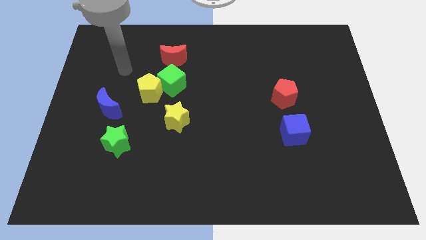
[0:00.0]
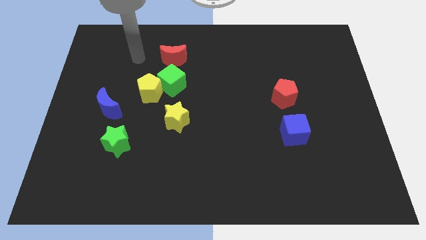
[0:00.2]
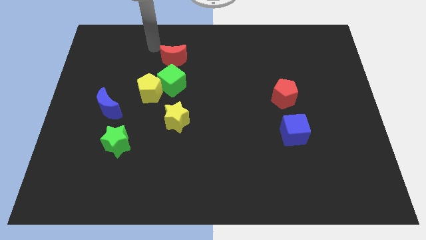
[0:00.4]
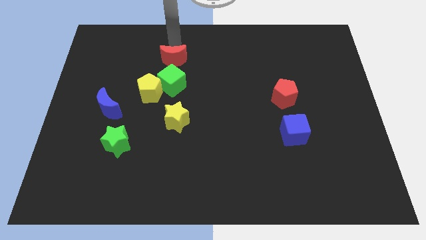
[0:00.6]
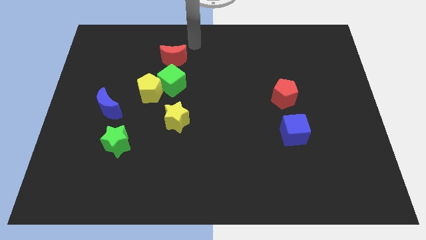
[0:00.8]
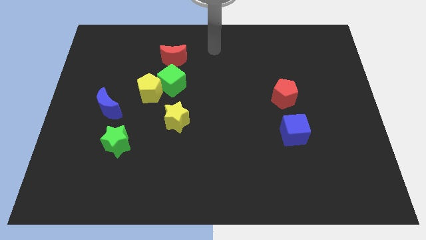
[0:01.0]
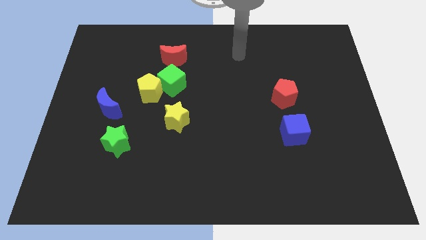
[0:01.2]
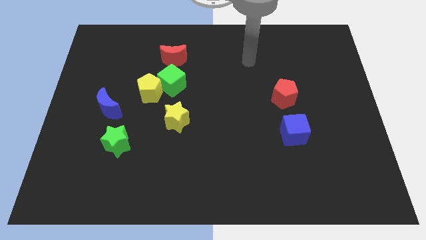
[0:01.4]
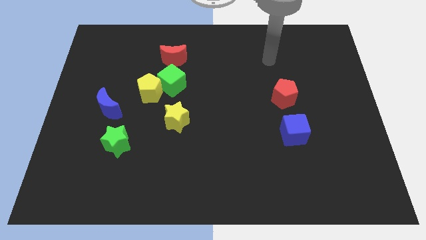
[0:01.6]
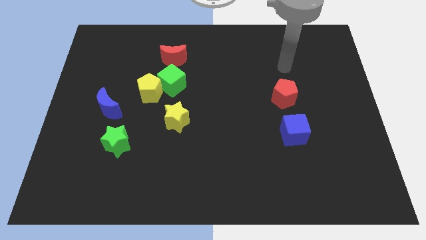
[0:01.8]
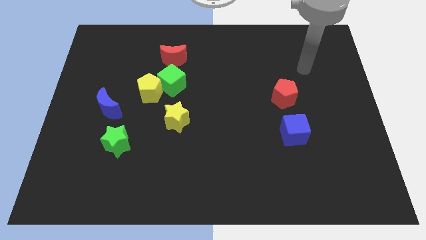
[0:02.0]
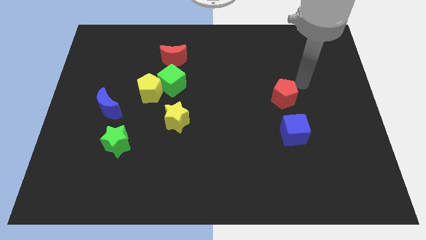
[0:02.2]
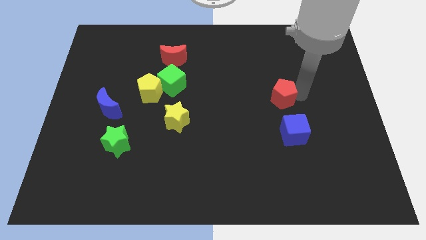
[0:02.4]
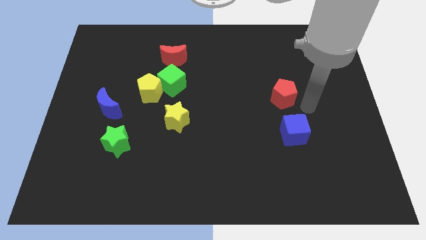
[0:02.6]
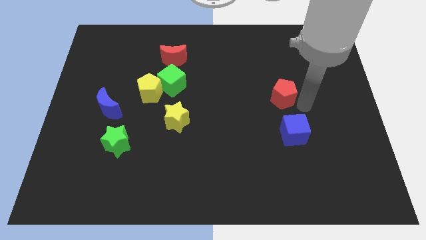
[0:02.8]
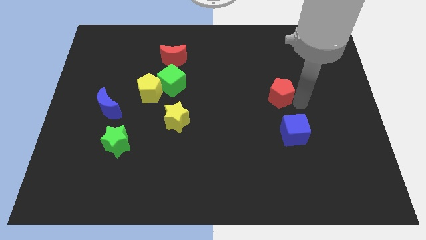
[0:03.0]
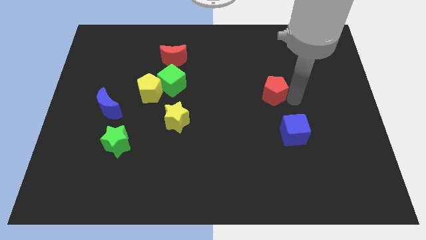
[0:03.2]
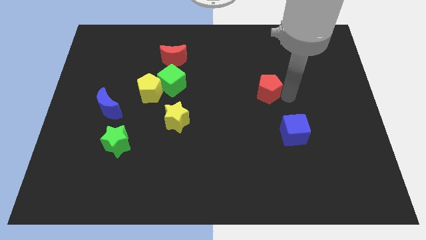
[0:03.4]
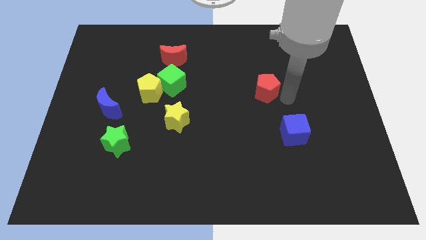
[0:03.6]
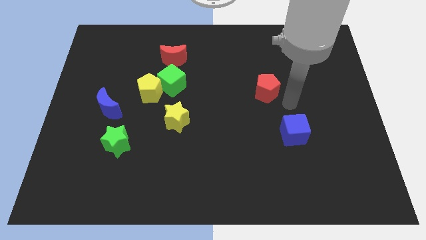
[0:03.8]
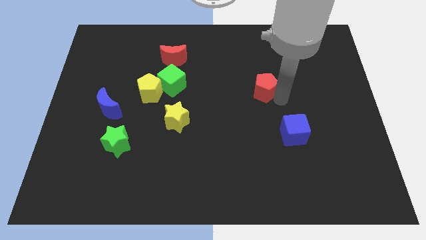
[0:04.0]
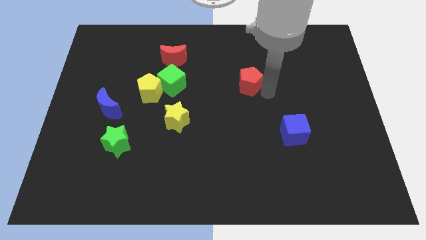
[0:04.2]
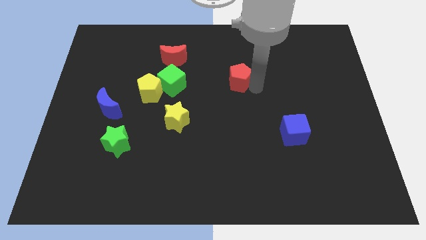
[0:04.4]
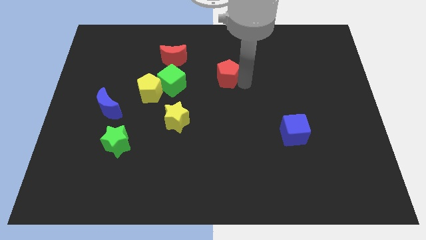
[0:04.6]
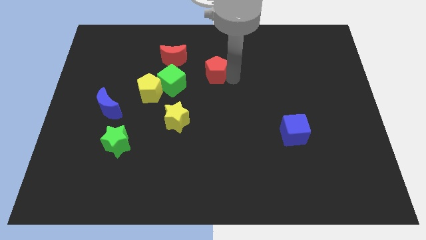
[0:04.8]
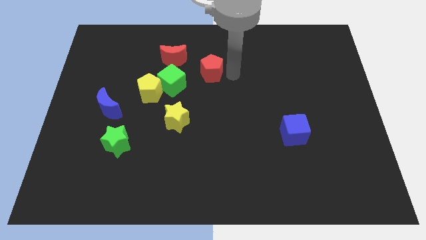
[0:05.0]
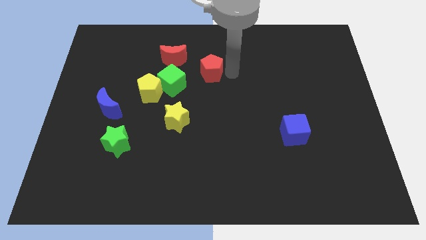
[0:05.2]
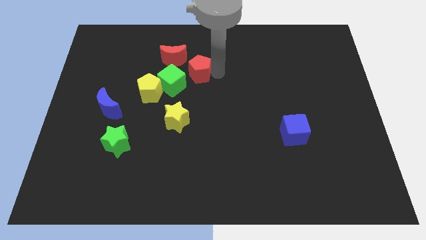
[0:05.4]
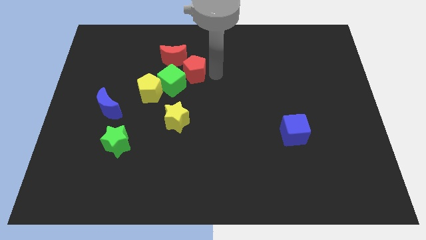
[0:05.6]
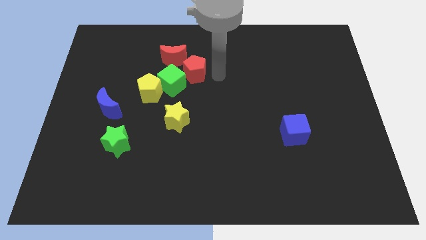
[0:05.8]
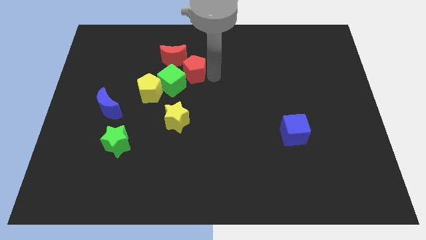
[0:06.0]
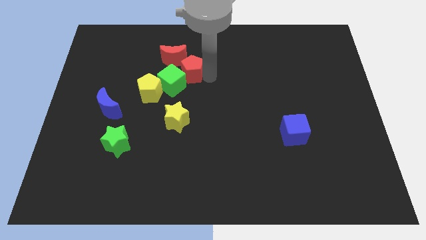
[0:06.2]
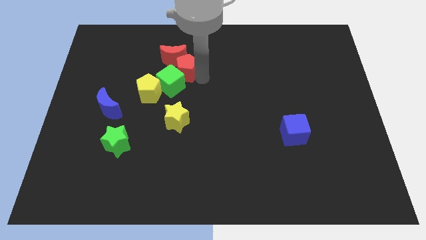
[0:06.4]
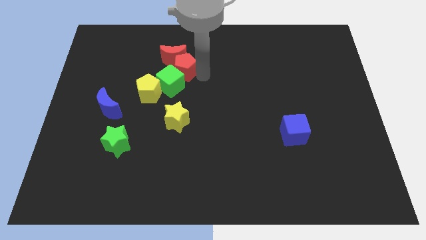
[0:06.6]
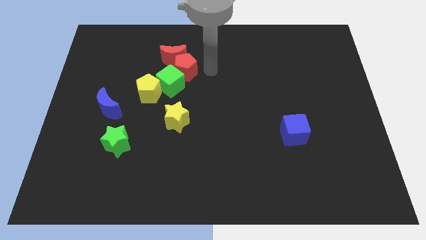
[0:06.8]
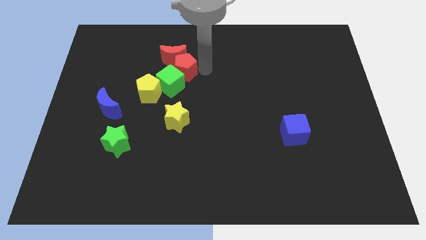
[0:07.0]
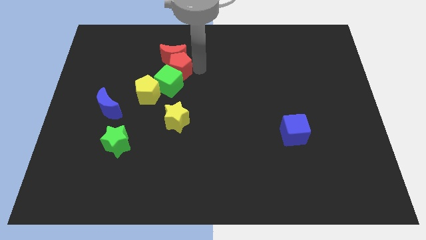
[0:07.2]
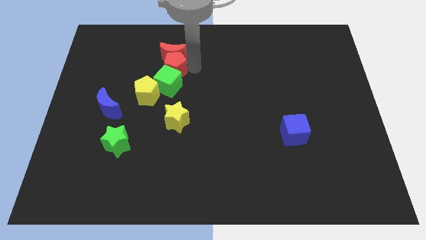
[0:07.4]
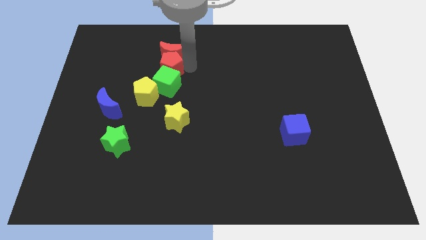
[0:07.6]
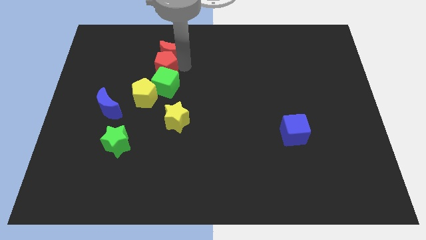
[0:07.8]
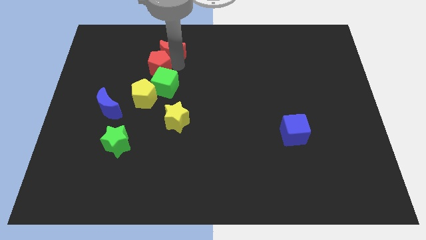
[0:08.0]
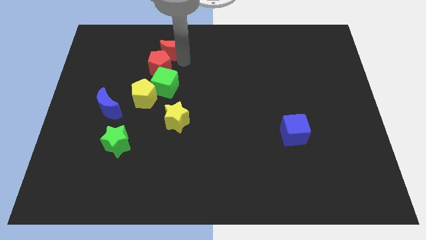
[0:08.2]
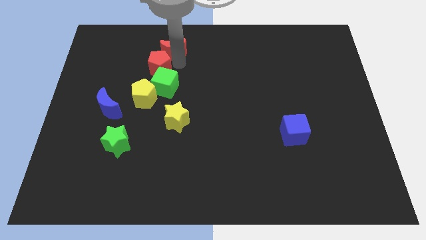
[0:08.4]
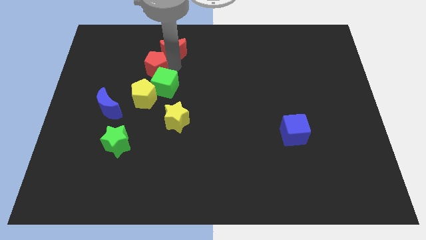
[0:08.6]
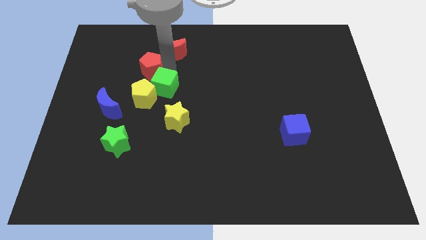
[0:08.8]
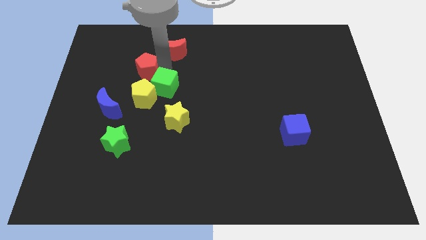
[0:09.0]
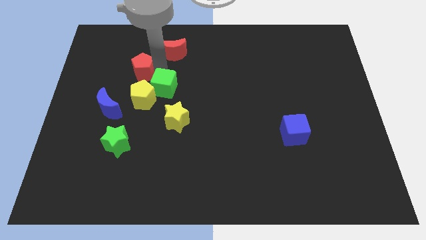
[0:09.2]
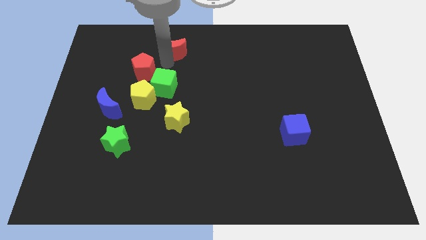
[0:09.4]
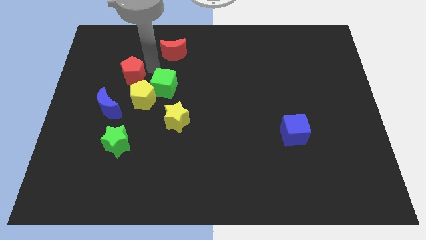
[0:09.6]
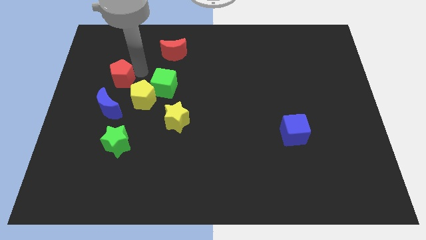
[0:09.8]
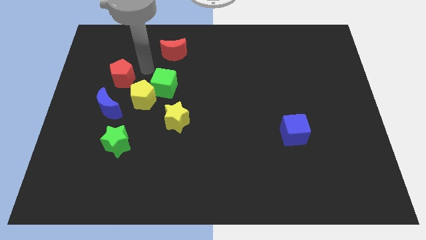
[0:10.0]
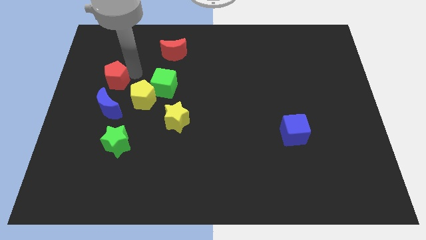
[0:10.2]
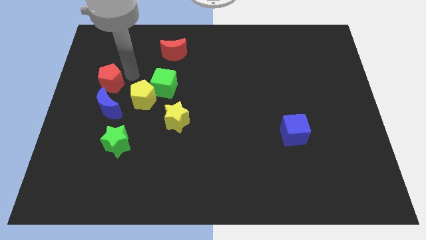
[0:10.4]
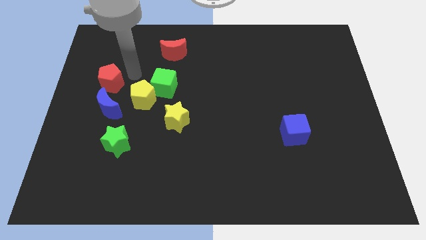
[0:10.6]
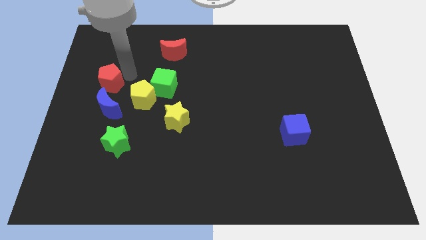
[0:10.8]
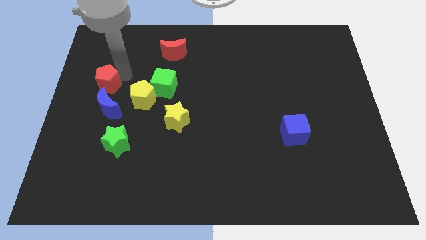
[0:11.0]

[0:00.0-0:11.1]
put the red pentagon to the left side of the board

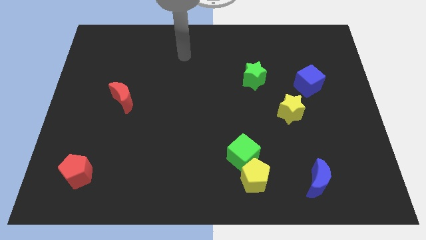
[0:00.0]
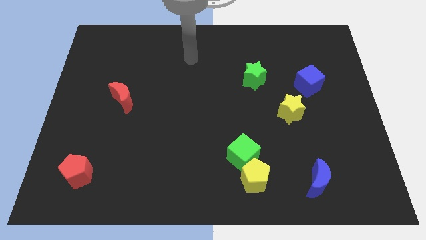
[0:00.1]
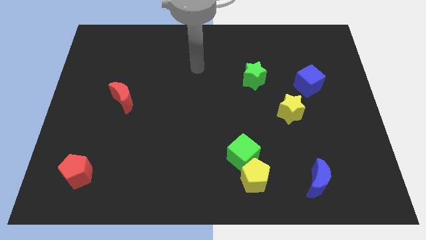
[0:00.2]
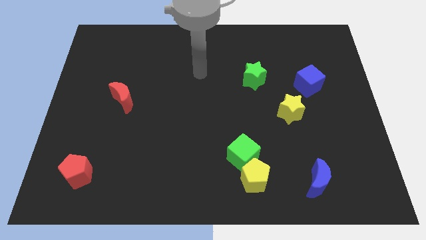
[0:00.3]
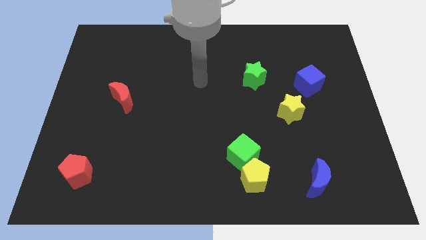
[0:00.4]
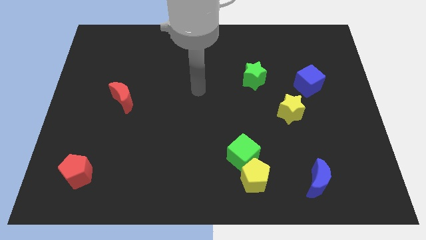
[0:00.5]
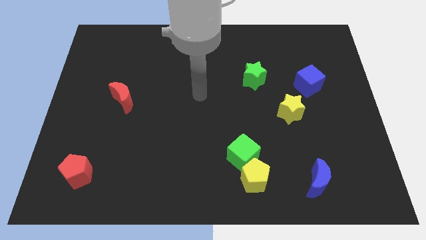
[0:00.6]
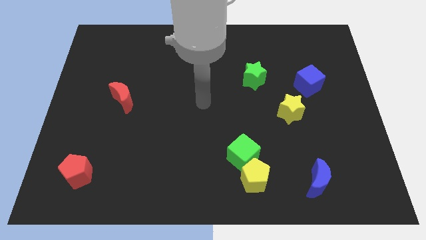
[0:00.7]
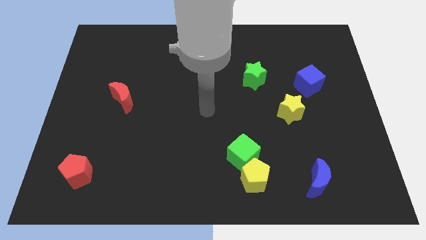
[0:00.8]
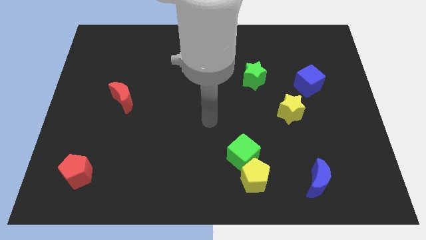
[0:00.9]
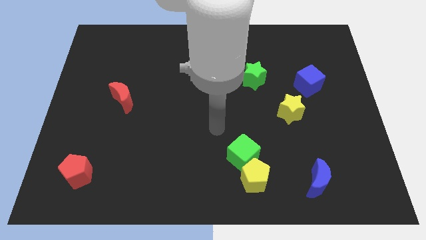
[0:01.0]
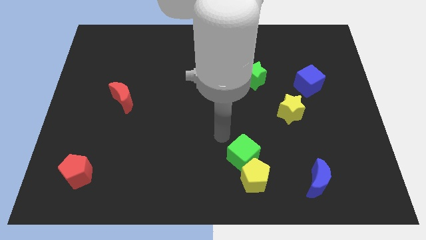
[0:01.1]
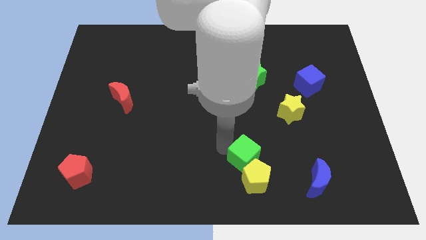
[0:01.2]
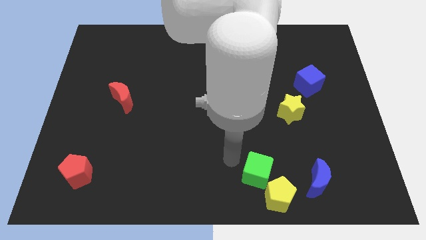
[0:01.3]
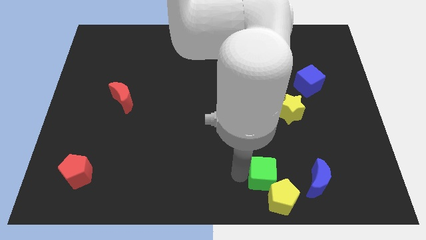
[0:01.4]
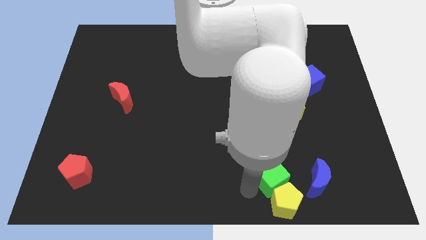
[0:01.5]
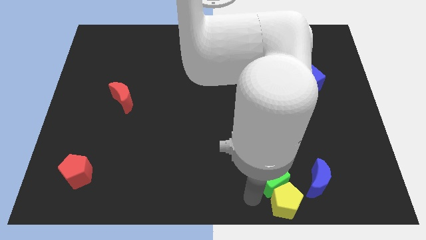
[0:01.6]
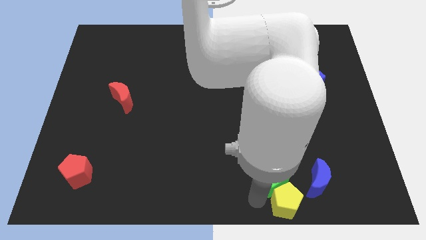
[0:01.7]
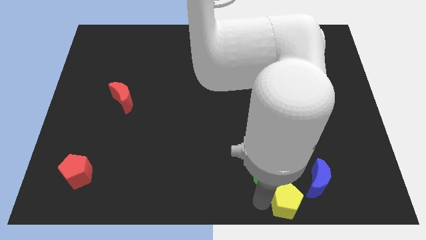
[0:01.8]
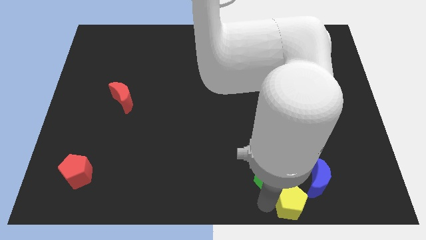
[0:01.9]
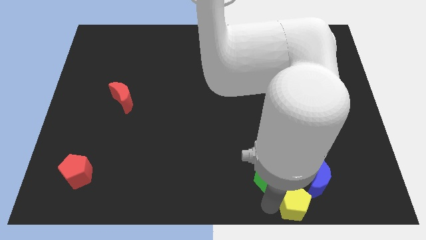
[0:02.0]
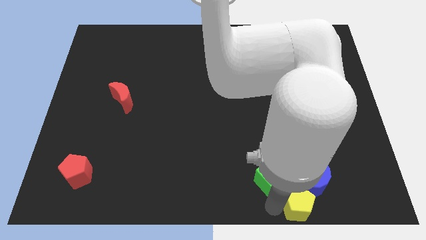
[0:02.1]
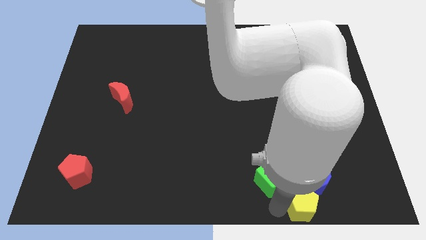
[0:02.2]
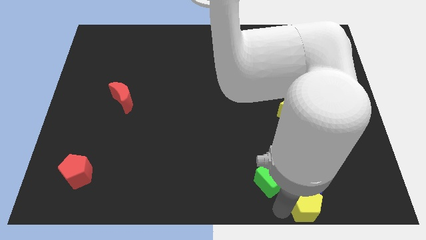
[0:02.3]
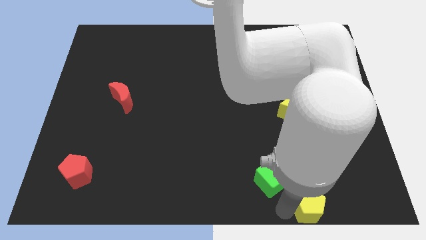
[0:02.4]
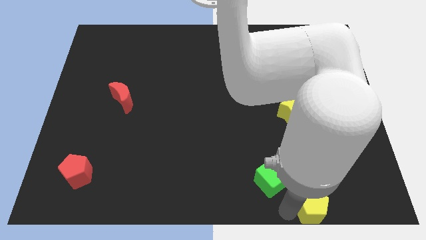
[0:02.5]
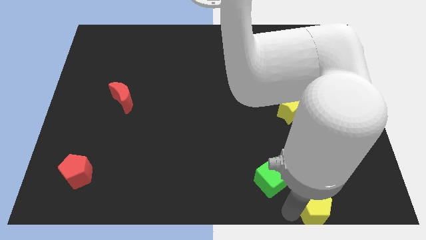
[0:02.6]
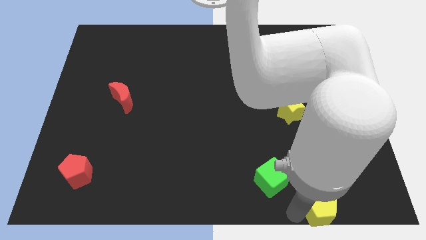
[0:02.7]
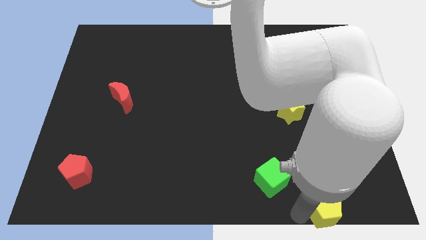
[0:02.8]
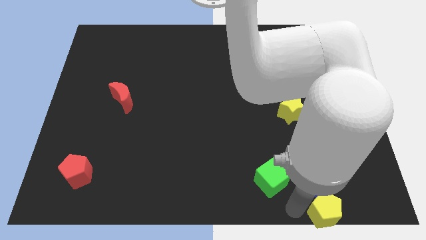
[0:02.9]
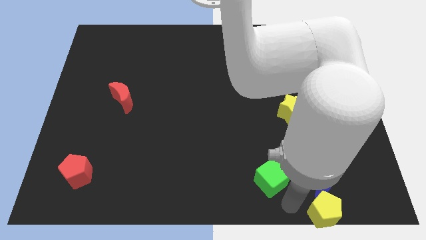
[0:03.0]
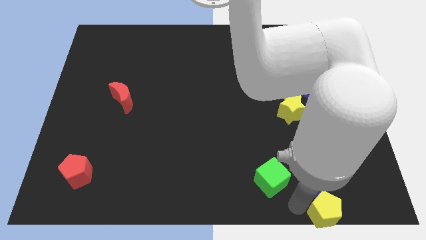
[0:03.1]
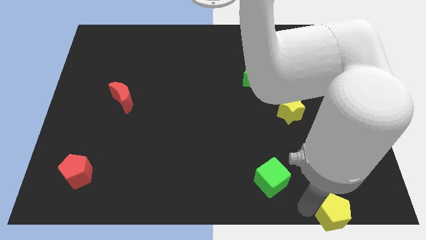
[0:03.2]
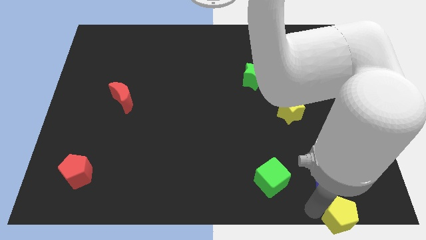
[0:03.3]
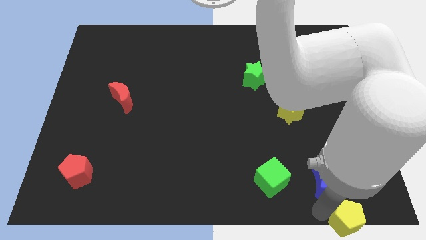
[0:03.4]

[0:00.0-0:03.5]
push the yellow pentagon to the bottom right of the board
